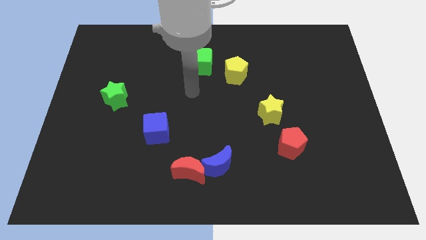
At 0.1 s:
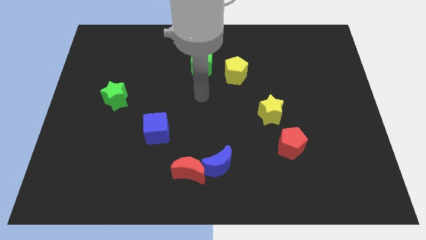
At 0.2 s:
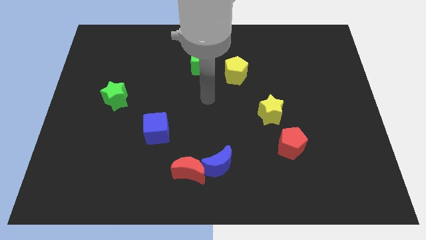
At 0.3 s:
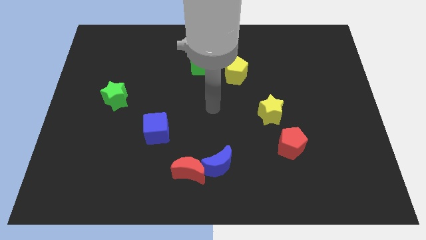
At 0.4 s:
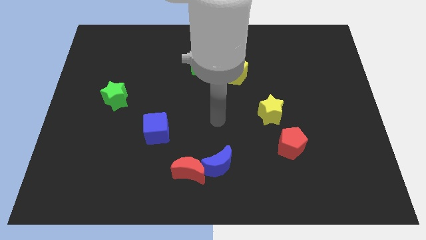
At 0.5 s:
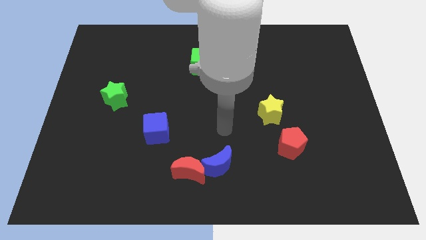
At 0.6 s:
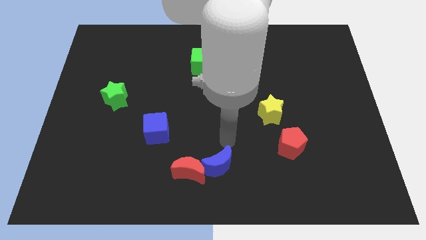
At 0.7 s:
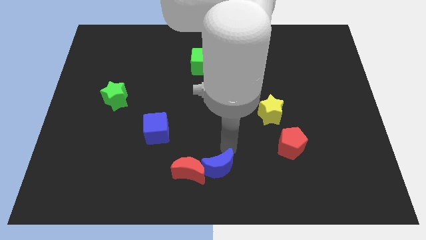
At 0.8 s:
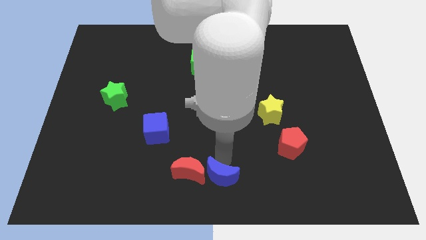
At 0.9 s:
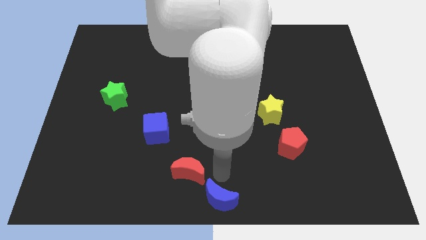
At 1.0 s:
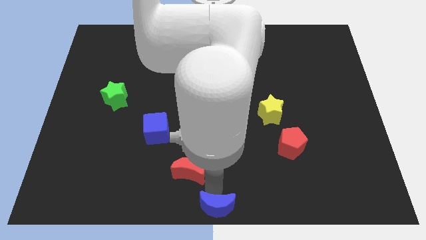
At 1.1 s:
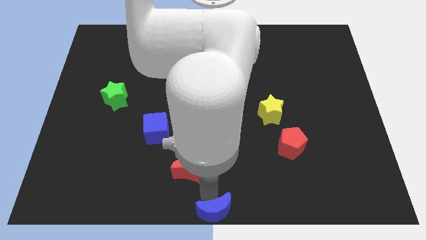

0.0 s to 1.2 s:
pull the red moon apart from the blue moon

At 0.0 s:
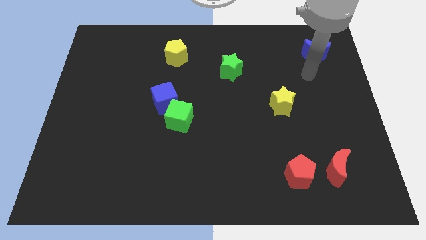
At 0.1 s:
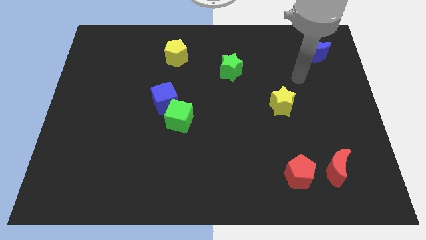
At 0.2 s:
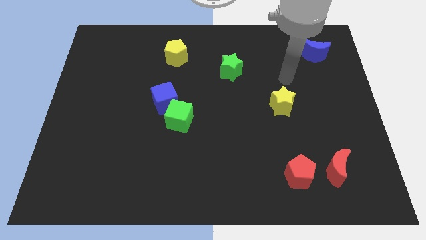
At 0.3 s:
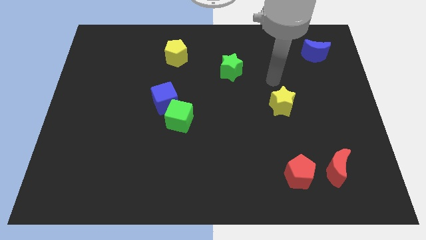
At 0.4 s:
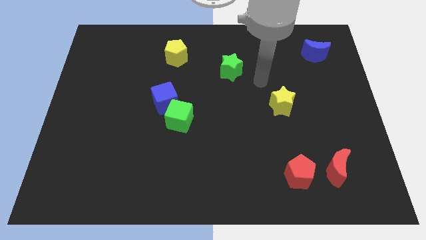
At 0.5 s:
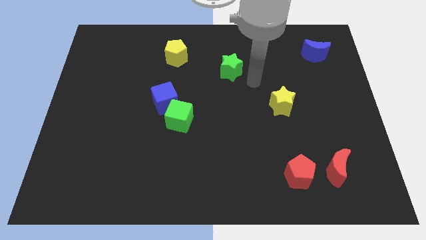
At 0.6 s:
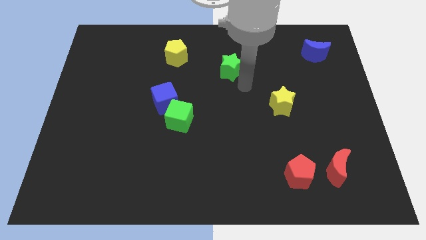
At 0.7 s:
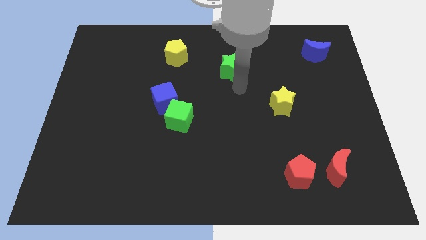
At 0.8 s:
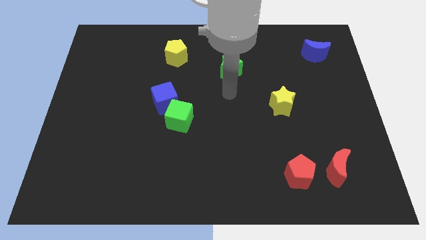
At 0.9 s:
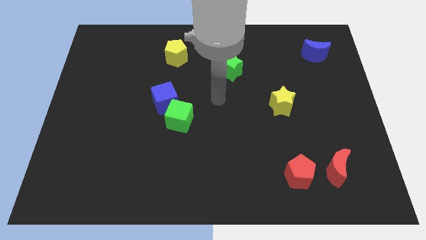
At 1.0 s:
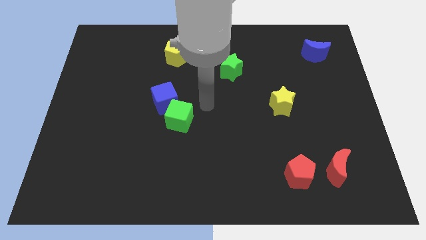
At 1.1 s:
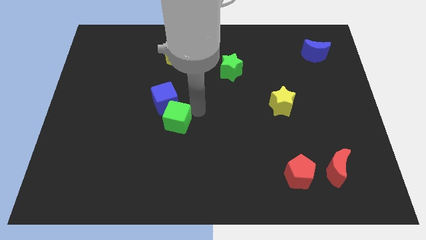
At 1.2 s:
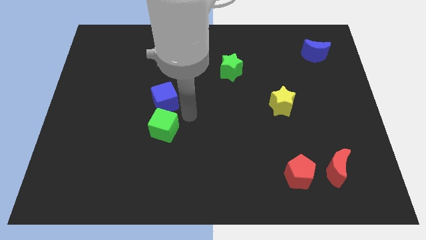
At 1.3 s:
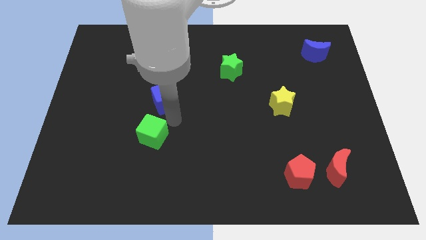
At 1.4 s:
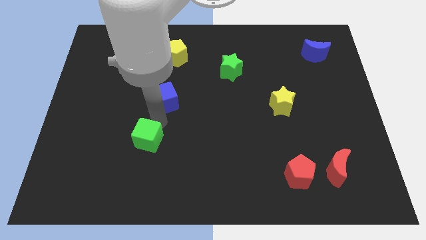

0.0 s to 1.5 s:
pull the blue cube apart from the green cube

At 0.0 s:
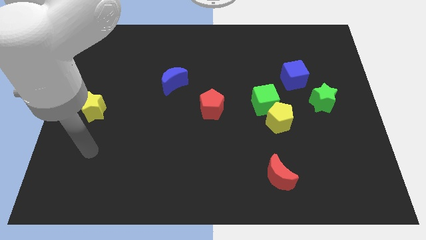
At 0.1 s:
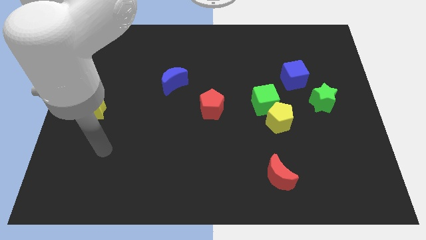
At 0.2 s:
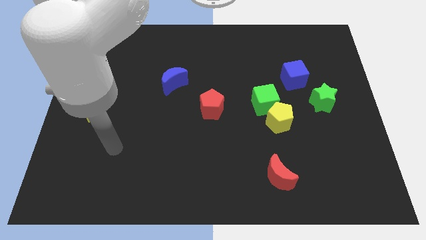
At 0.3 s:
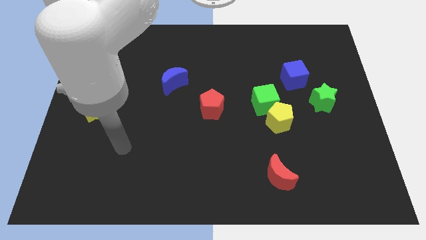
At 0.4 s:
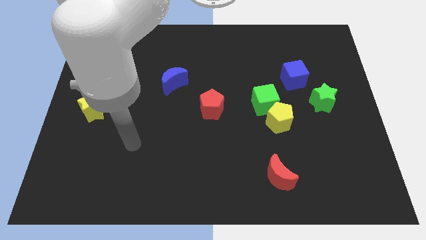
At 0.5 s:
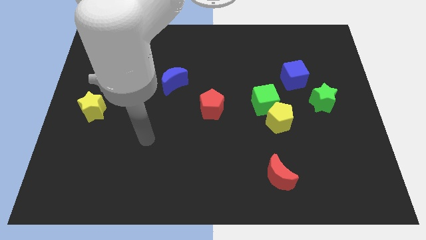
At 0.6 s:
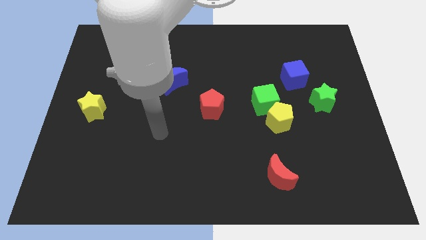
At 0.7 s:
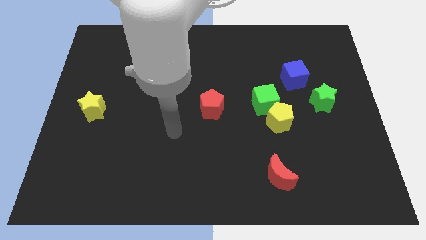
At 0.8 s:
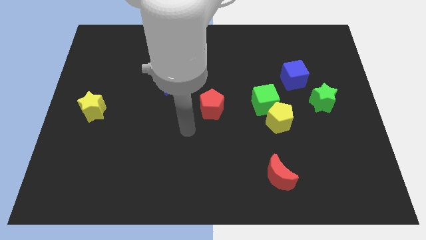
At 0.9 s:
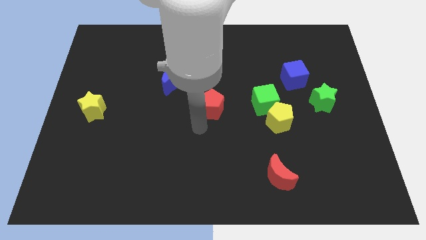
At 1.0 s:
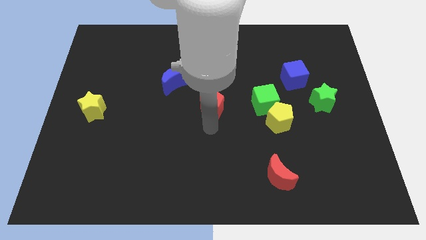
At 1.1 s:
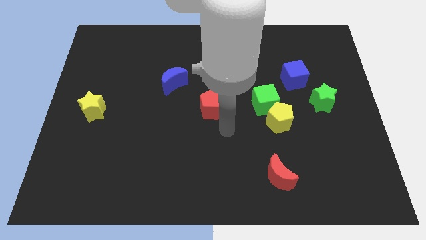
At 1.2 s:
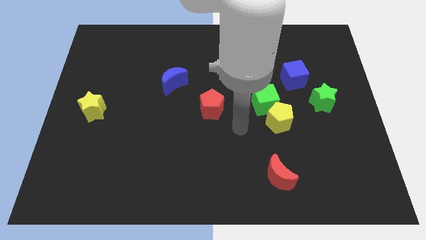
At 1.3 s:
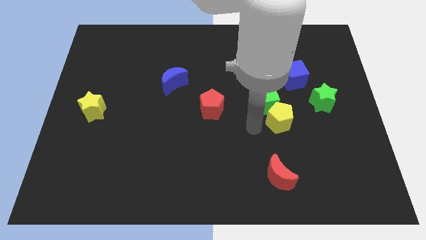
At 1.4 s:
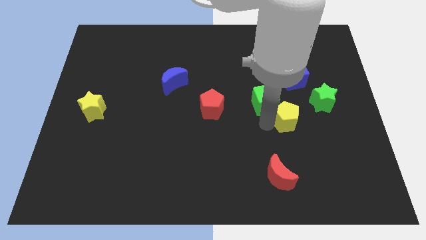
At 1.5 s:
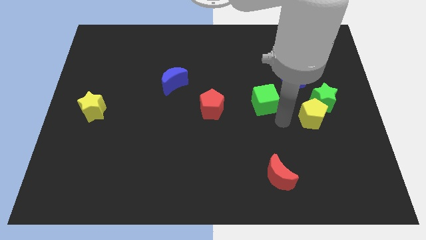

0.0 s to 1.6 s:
pull the green cube apart from the yellow pentagon

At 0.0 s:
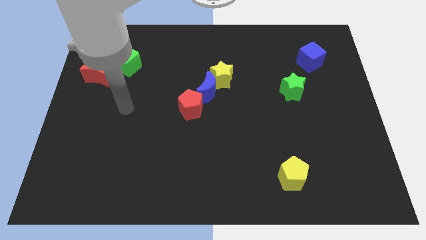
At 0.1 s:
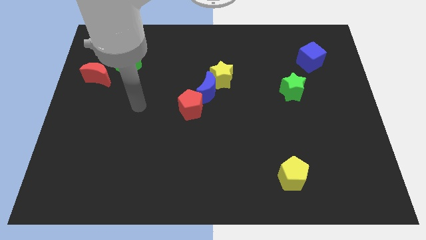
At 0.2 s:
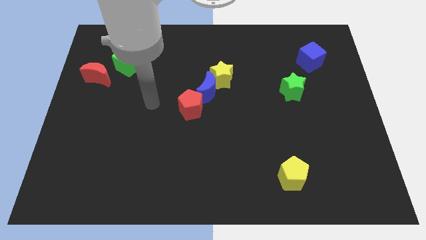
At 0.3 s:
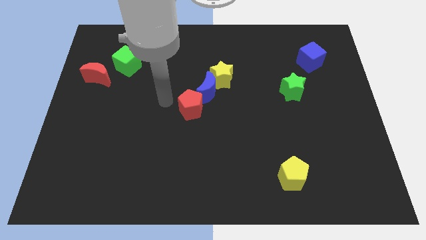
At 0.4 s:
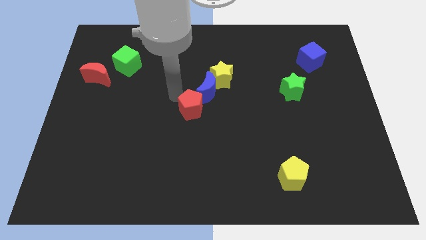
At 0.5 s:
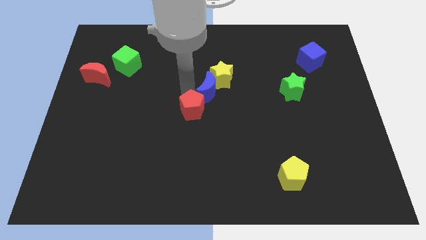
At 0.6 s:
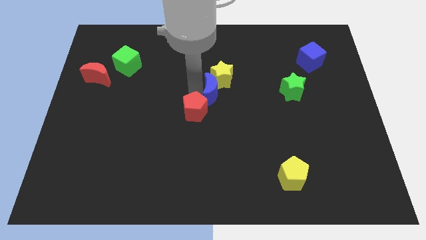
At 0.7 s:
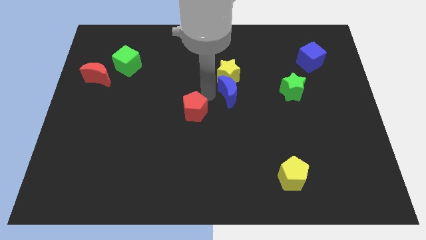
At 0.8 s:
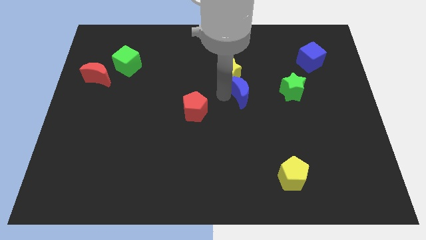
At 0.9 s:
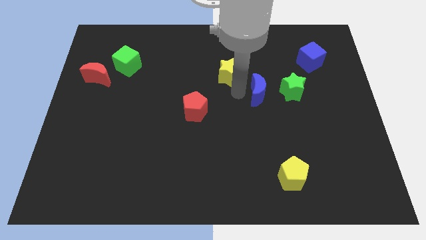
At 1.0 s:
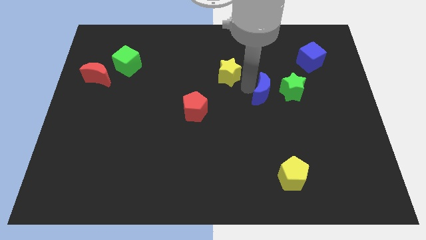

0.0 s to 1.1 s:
move the yellow star away from the blue moon

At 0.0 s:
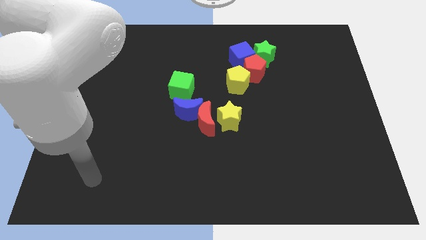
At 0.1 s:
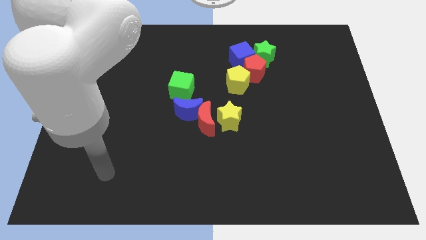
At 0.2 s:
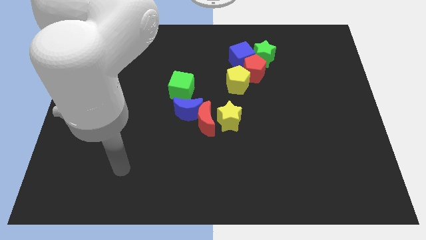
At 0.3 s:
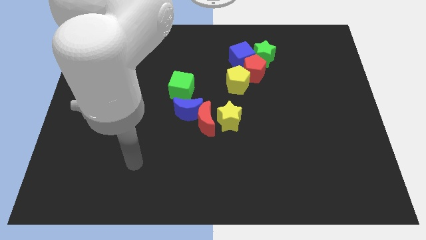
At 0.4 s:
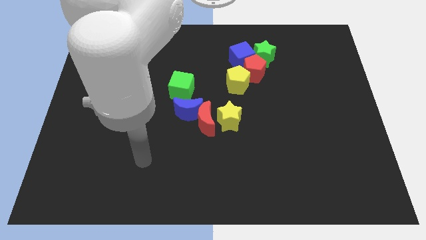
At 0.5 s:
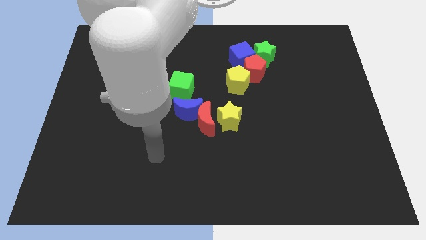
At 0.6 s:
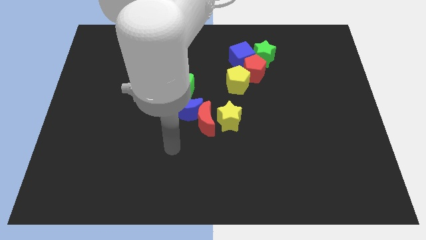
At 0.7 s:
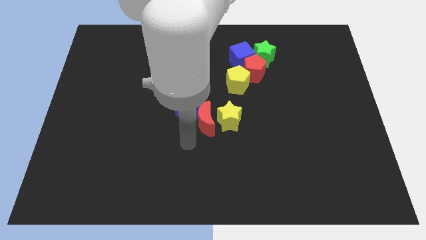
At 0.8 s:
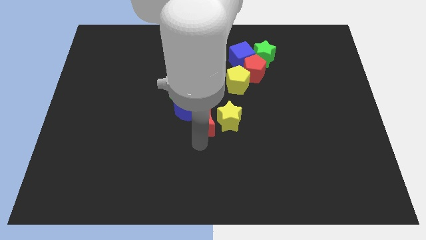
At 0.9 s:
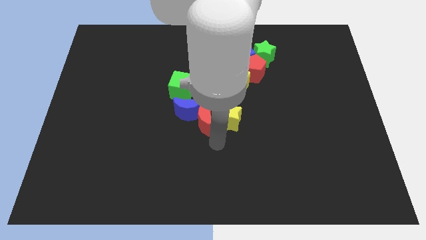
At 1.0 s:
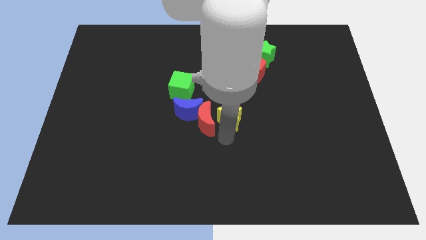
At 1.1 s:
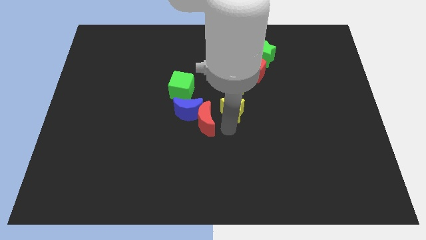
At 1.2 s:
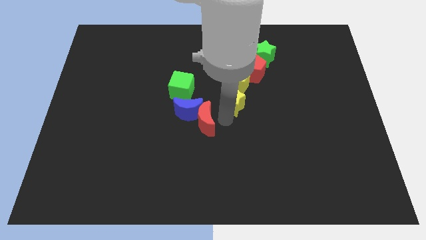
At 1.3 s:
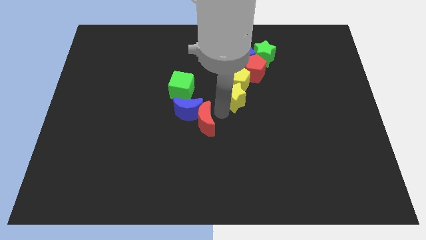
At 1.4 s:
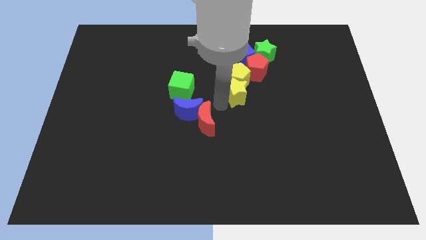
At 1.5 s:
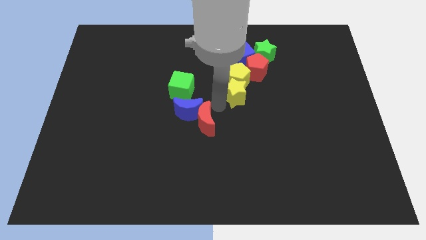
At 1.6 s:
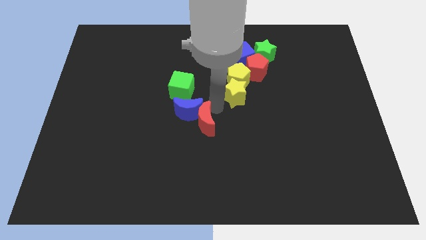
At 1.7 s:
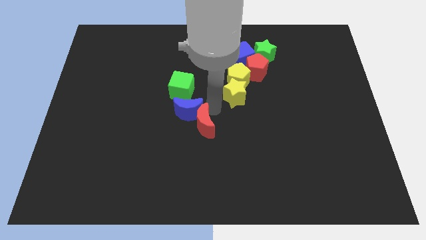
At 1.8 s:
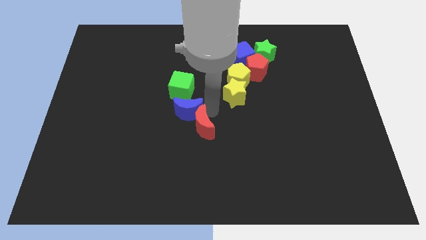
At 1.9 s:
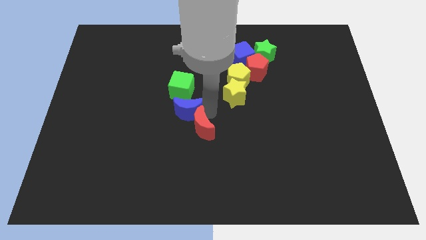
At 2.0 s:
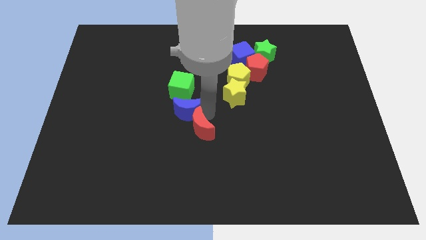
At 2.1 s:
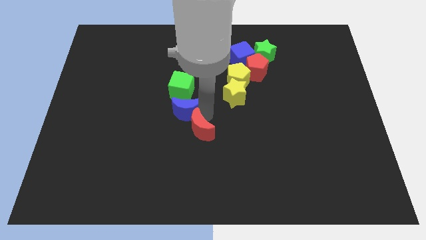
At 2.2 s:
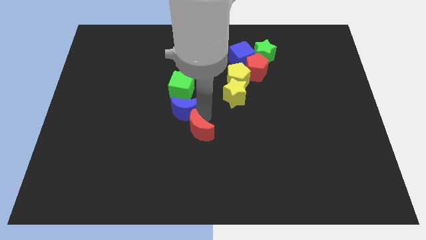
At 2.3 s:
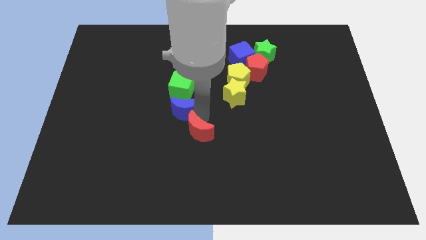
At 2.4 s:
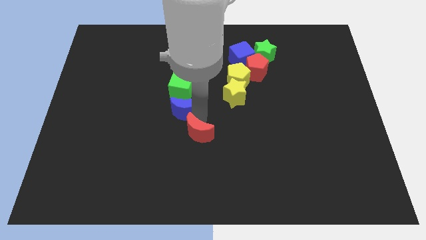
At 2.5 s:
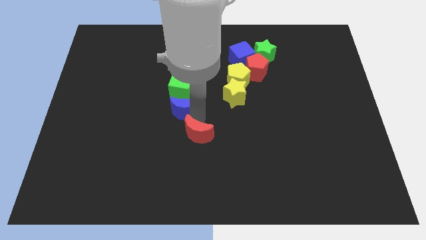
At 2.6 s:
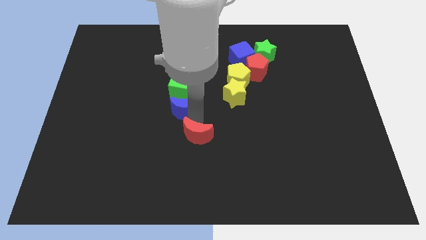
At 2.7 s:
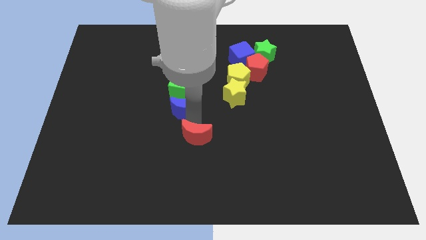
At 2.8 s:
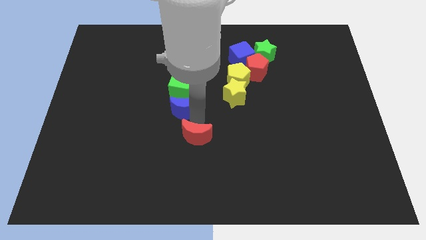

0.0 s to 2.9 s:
move the red moon away from the blue moon and yellow star

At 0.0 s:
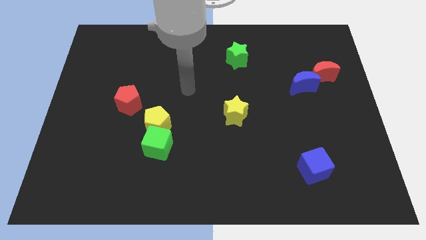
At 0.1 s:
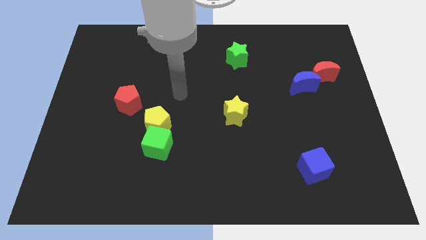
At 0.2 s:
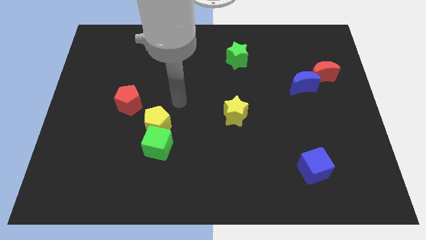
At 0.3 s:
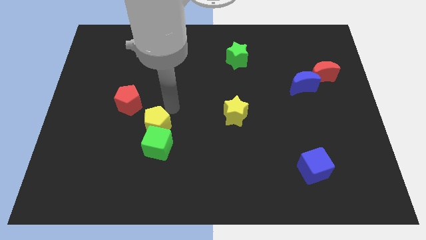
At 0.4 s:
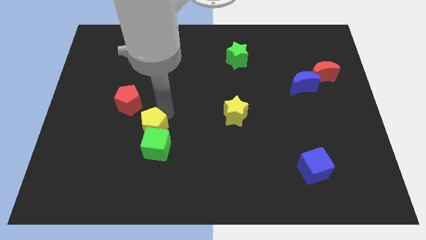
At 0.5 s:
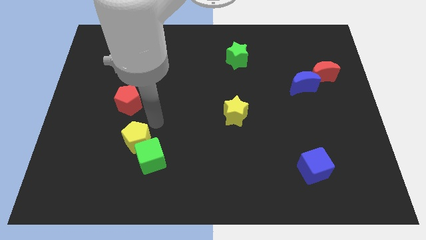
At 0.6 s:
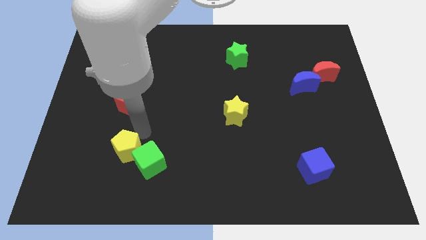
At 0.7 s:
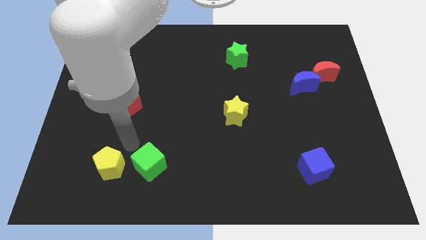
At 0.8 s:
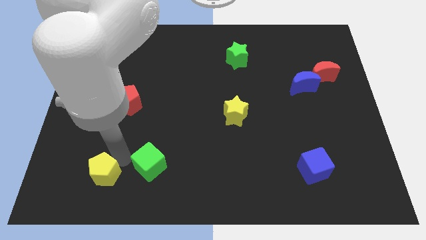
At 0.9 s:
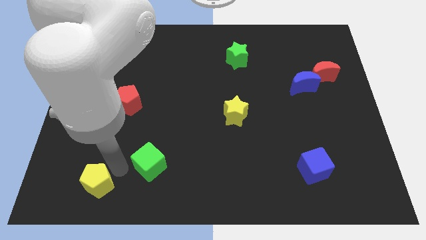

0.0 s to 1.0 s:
move the green cube away from the yellow pentagon
